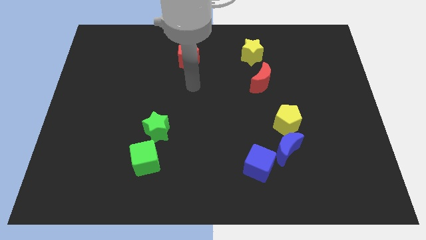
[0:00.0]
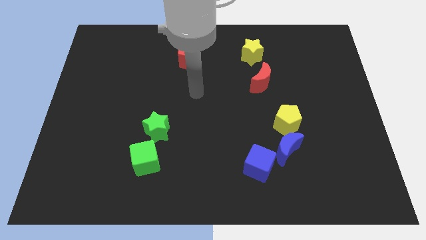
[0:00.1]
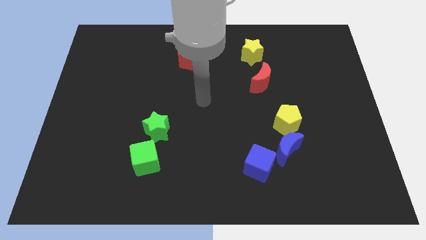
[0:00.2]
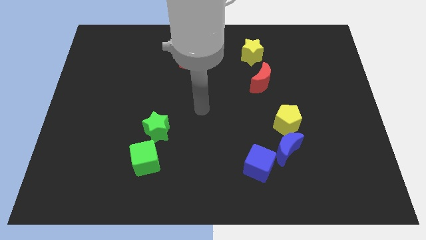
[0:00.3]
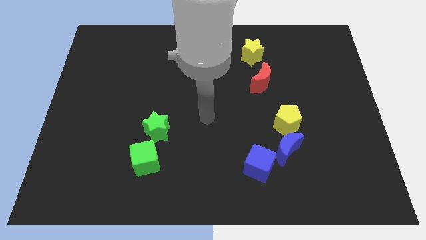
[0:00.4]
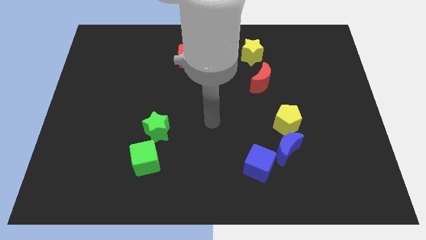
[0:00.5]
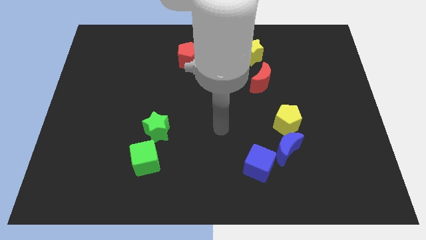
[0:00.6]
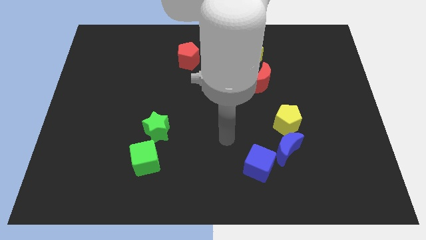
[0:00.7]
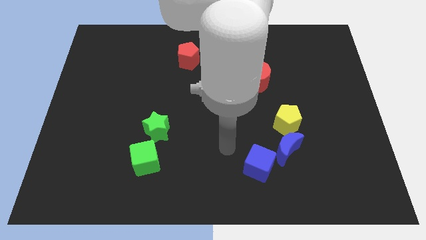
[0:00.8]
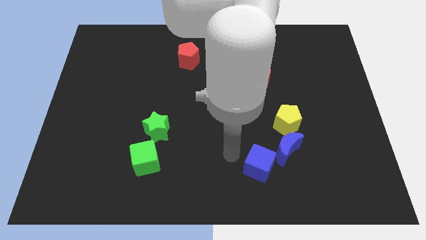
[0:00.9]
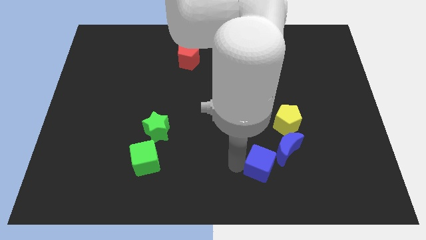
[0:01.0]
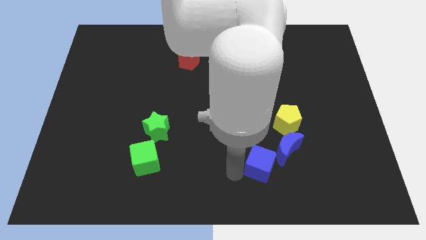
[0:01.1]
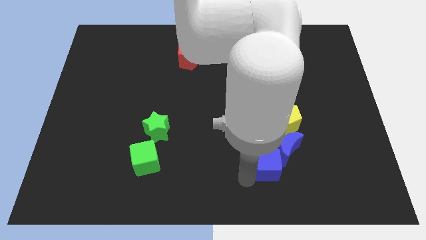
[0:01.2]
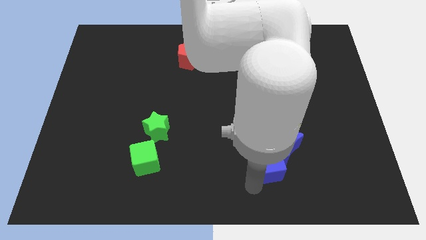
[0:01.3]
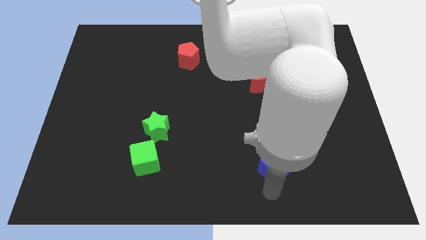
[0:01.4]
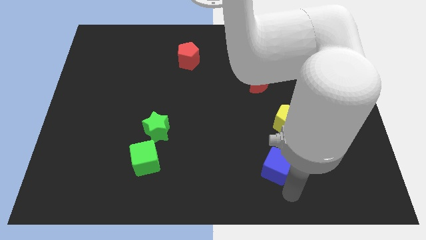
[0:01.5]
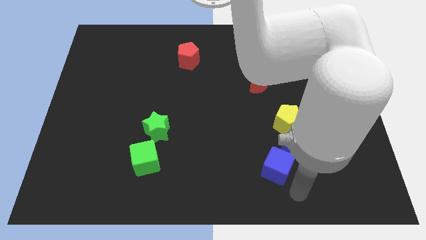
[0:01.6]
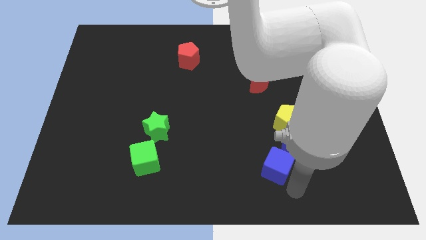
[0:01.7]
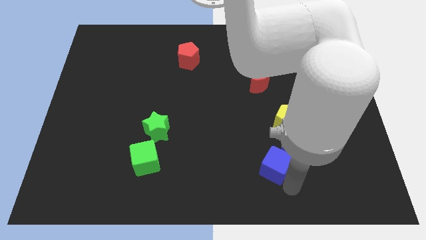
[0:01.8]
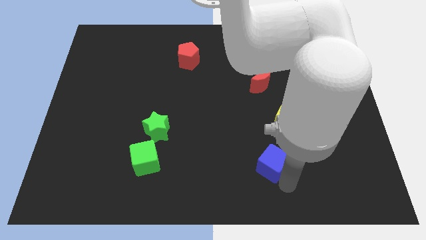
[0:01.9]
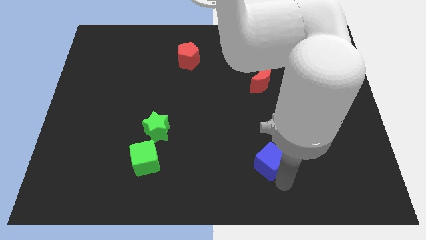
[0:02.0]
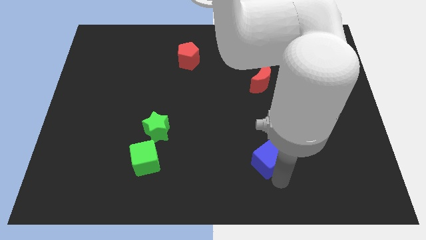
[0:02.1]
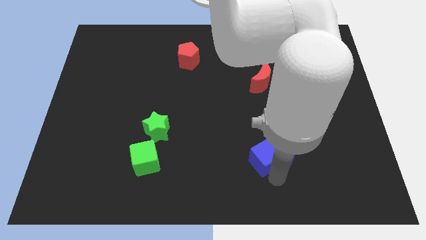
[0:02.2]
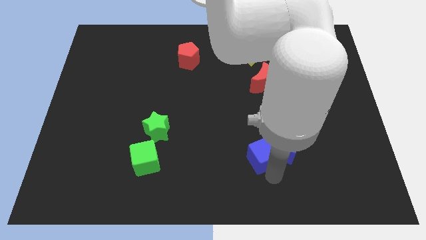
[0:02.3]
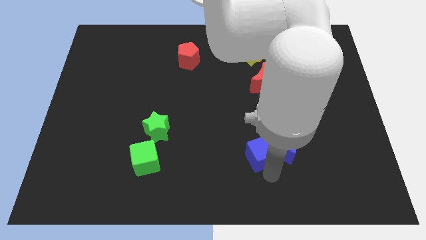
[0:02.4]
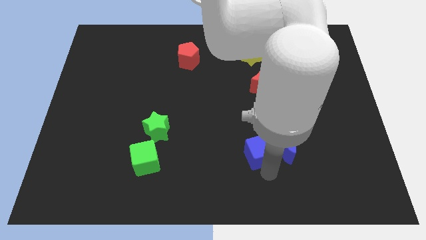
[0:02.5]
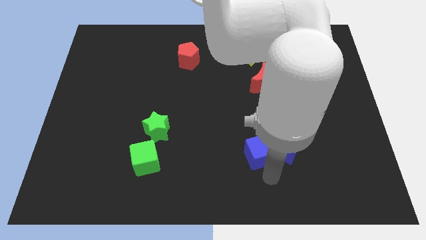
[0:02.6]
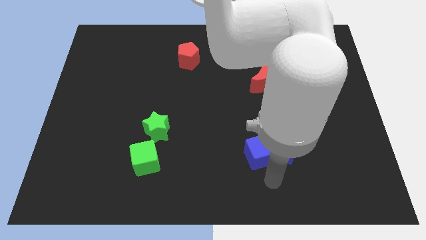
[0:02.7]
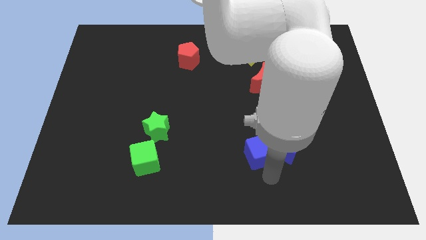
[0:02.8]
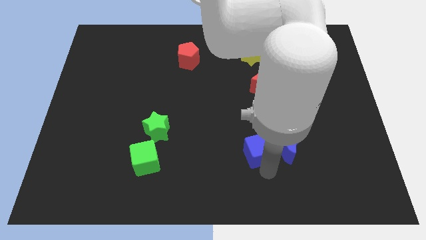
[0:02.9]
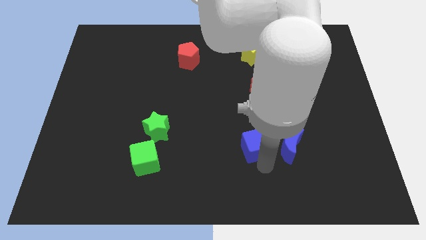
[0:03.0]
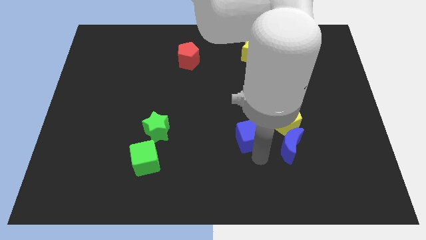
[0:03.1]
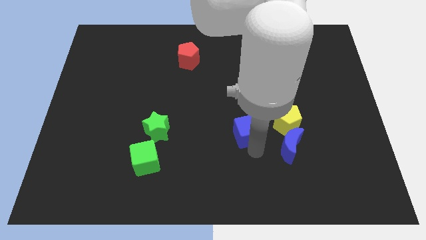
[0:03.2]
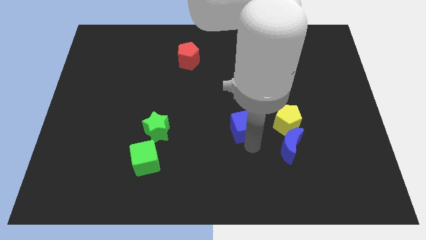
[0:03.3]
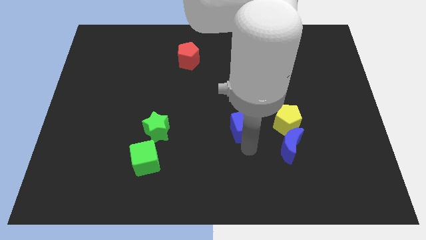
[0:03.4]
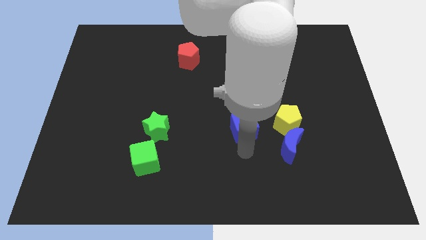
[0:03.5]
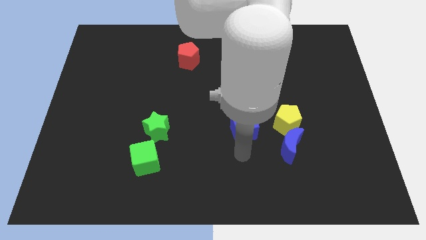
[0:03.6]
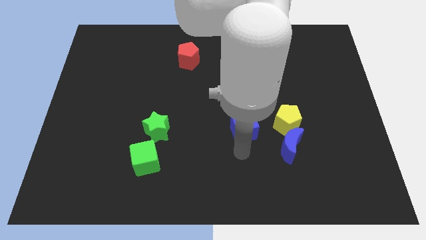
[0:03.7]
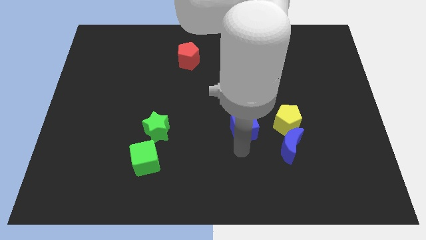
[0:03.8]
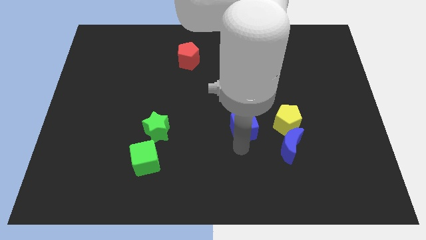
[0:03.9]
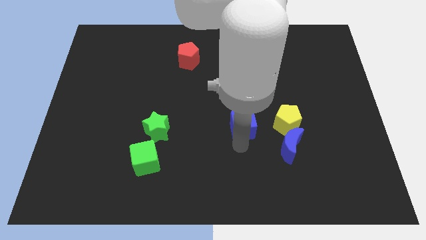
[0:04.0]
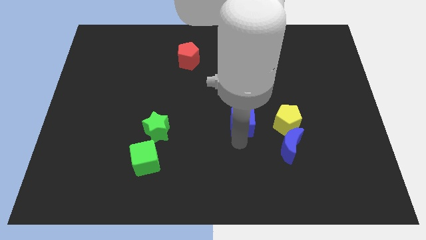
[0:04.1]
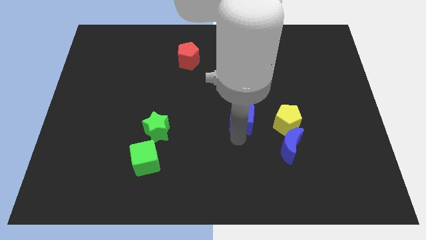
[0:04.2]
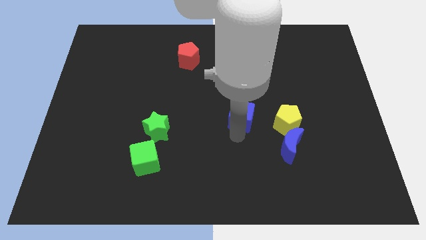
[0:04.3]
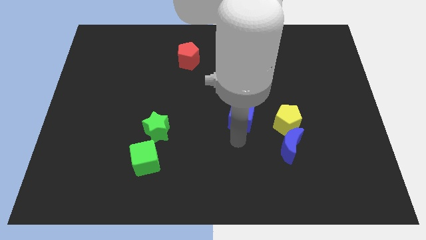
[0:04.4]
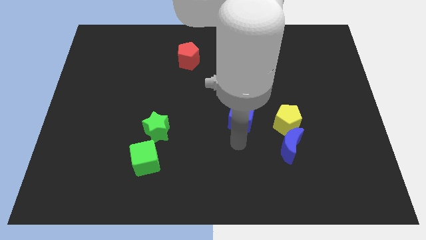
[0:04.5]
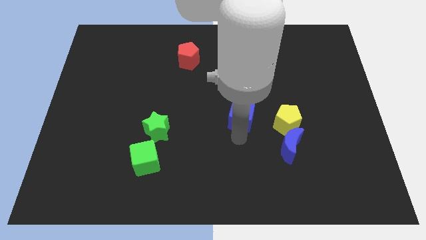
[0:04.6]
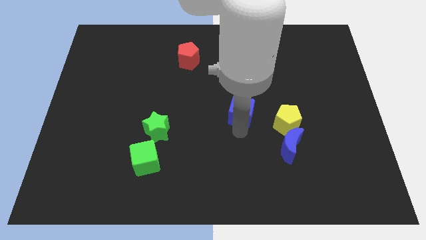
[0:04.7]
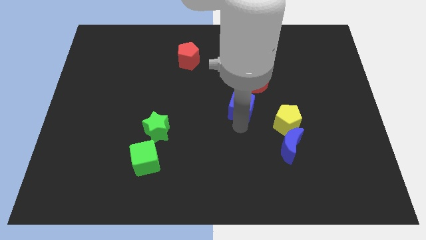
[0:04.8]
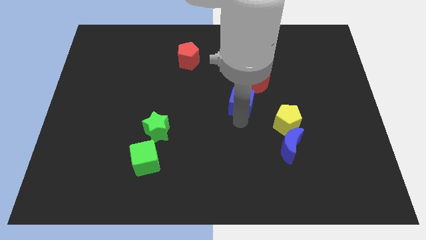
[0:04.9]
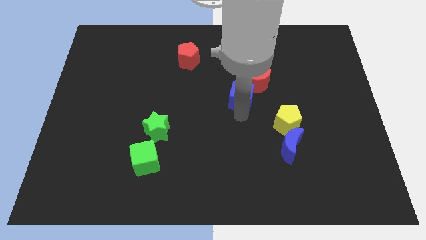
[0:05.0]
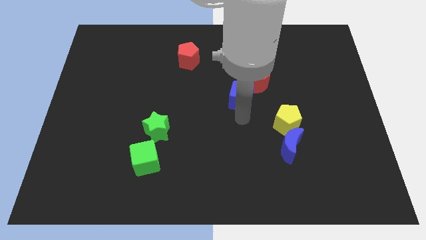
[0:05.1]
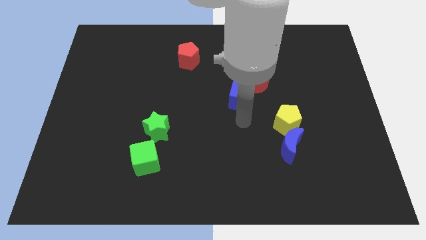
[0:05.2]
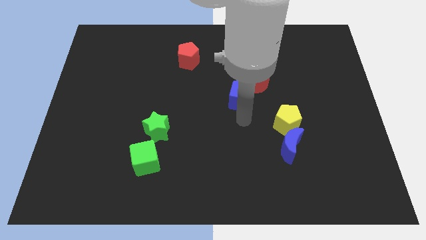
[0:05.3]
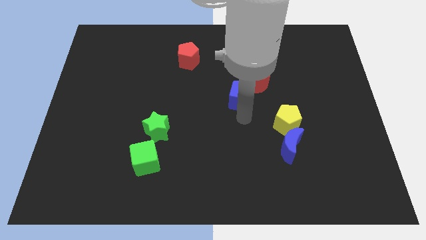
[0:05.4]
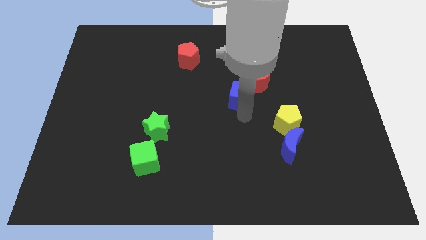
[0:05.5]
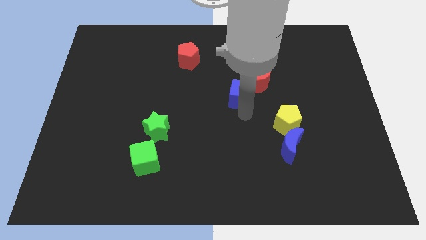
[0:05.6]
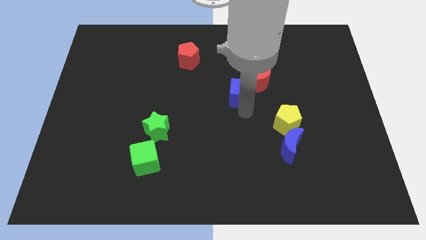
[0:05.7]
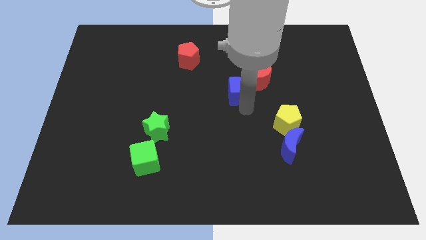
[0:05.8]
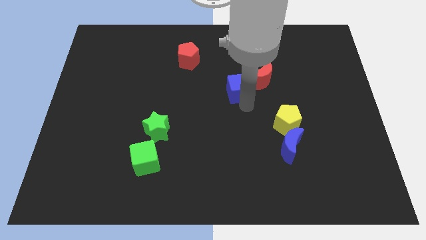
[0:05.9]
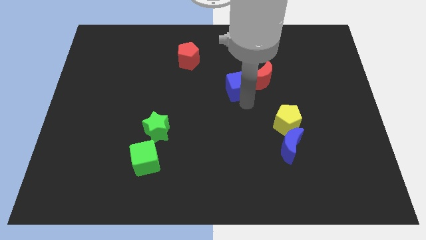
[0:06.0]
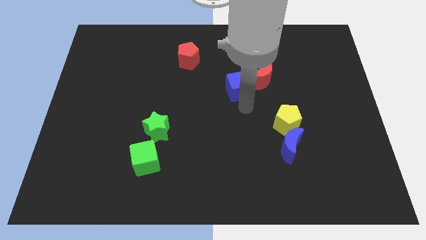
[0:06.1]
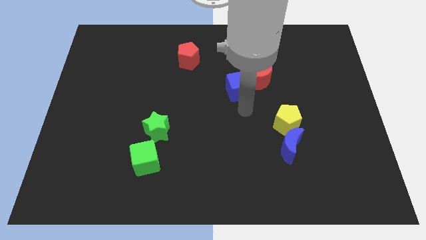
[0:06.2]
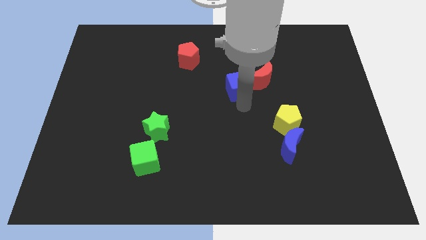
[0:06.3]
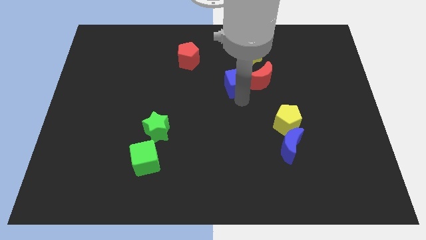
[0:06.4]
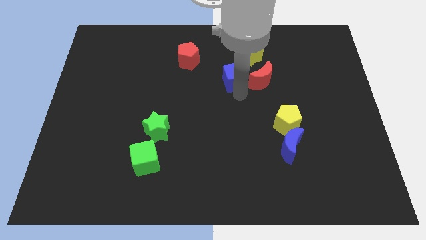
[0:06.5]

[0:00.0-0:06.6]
slide the blue cube to the bottom left side of the yellow star
